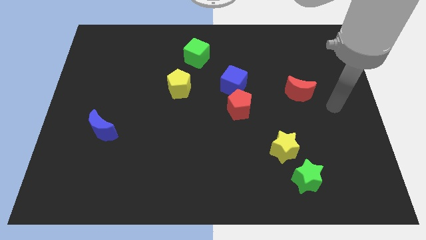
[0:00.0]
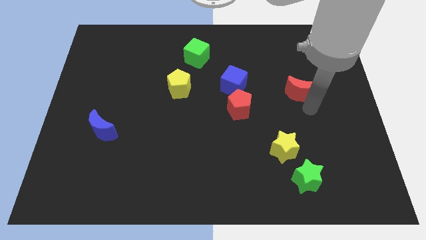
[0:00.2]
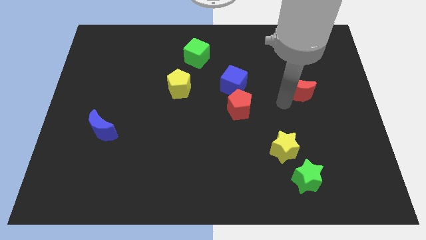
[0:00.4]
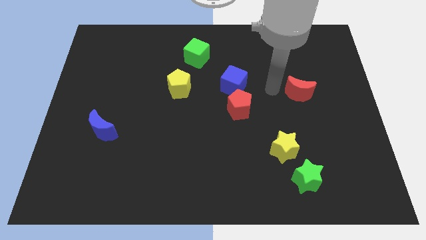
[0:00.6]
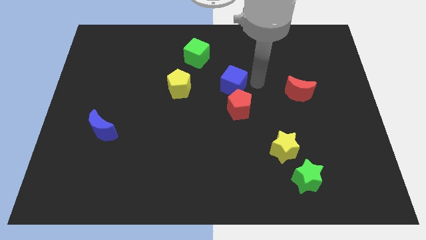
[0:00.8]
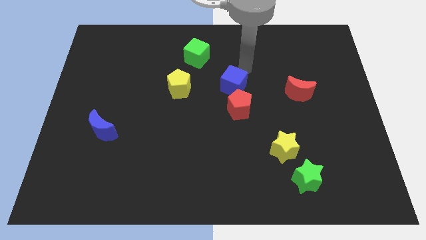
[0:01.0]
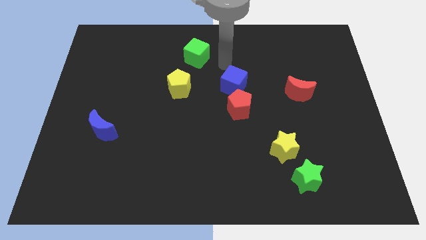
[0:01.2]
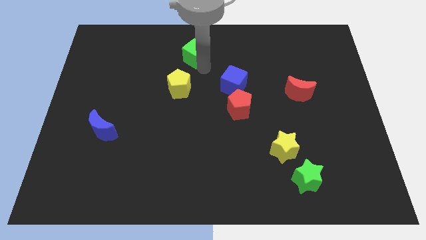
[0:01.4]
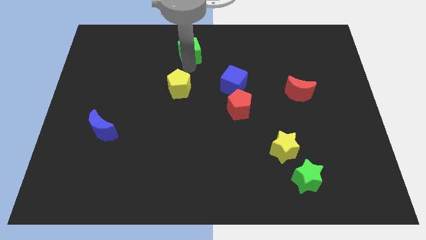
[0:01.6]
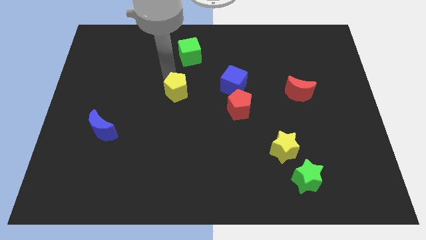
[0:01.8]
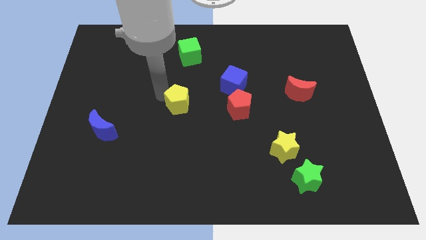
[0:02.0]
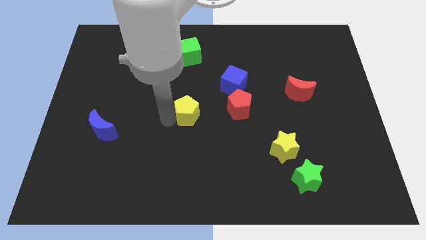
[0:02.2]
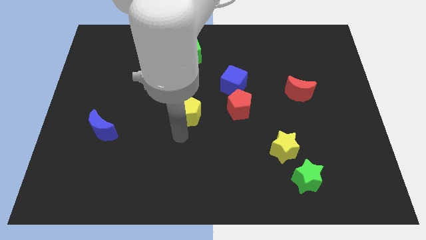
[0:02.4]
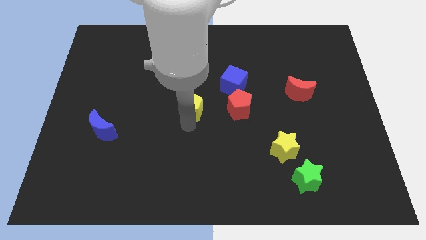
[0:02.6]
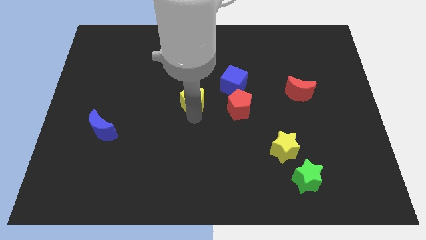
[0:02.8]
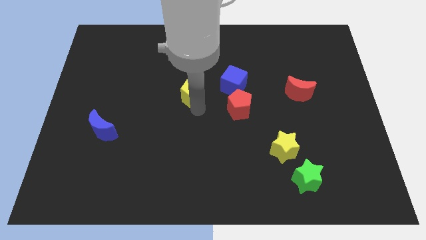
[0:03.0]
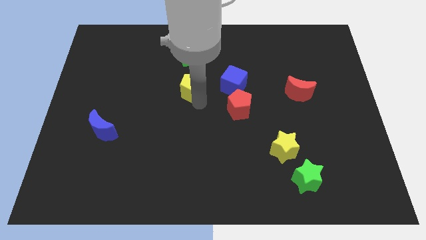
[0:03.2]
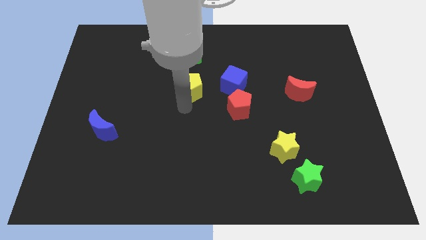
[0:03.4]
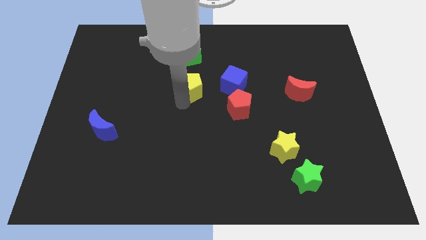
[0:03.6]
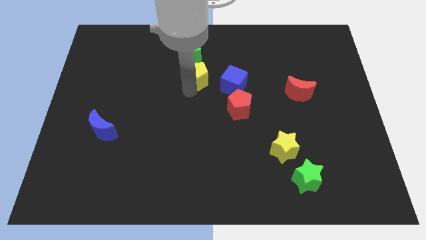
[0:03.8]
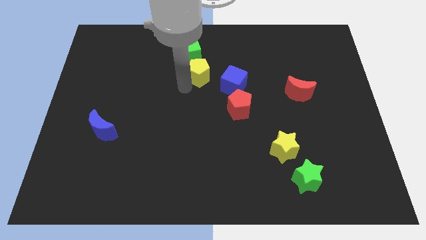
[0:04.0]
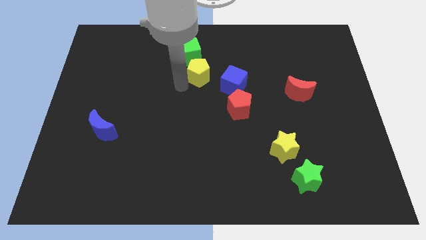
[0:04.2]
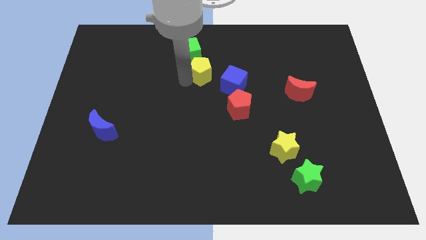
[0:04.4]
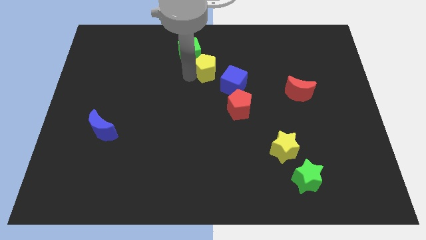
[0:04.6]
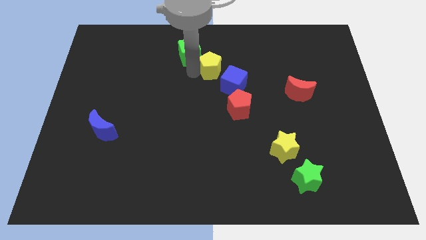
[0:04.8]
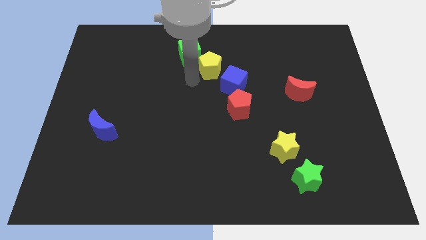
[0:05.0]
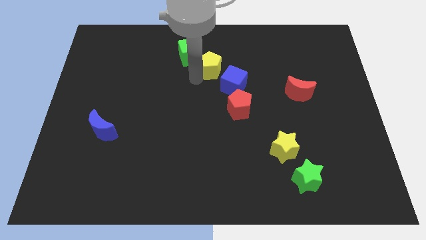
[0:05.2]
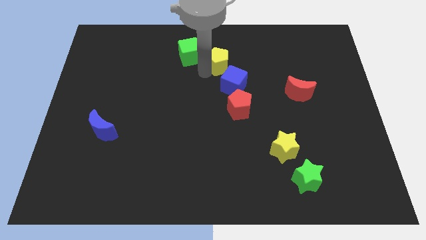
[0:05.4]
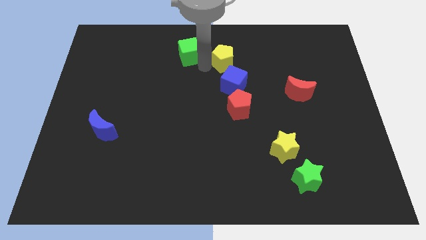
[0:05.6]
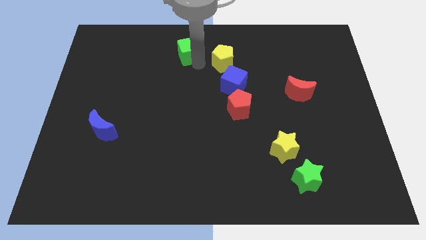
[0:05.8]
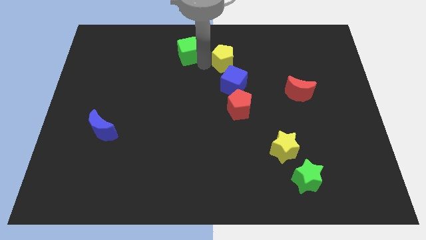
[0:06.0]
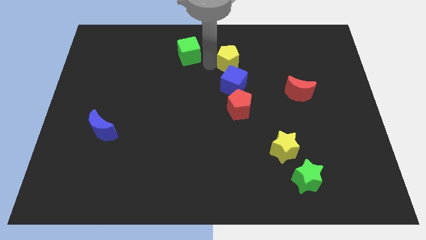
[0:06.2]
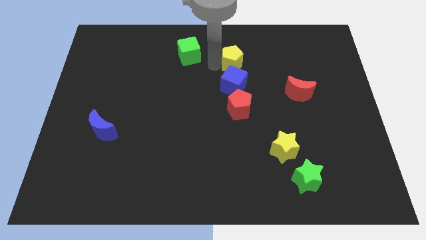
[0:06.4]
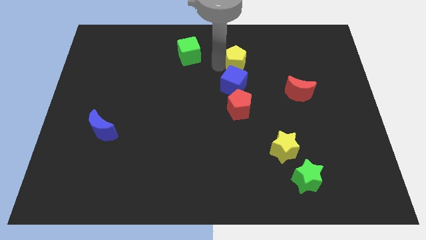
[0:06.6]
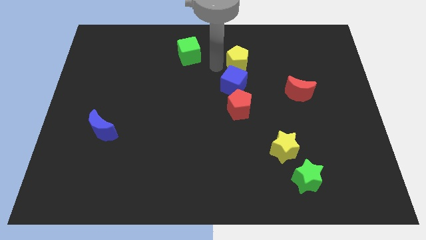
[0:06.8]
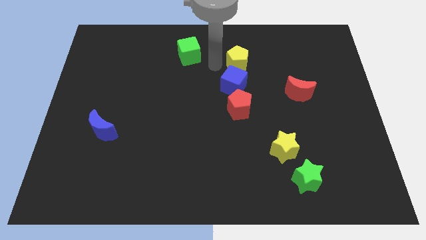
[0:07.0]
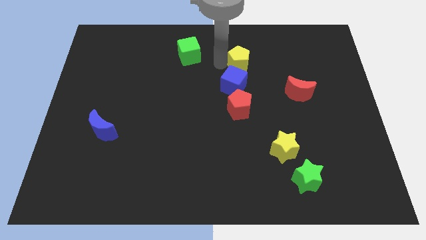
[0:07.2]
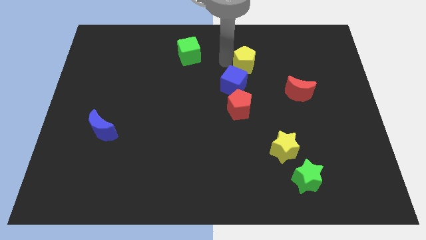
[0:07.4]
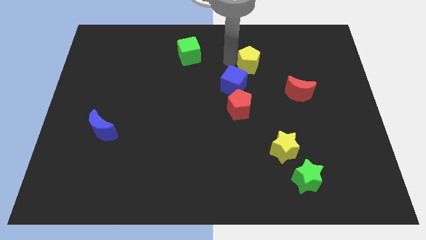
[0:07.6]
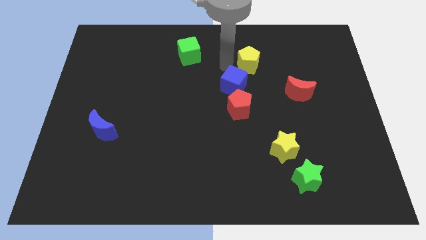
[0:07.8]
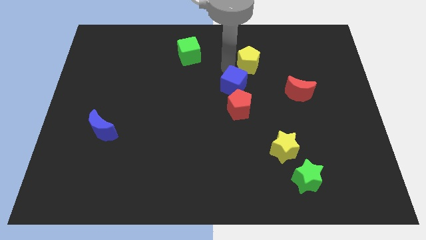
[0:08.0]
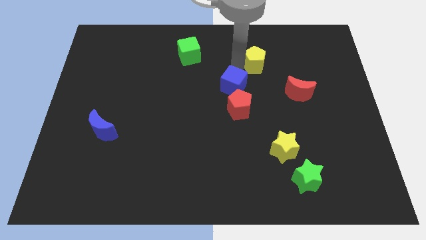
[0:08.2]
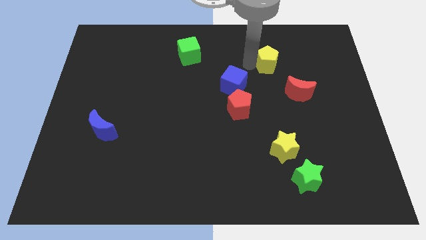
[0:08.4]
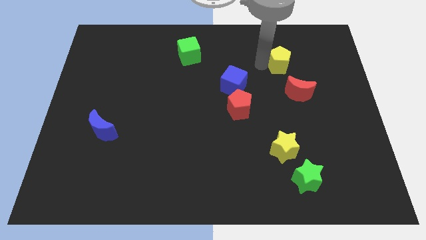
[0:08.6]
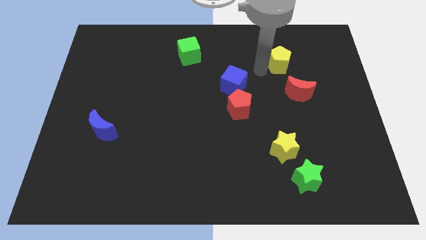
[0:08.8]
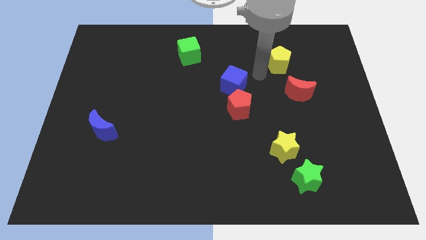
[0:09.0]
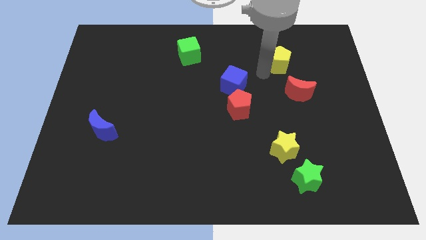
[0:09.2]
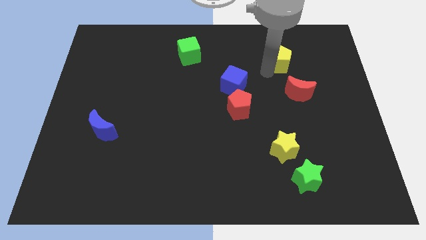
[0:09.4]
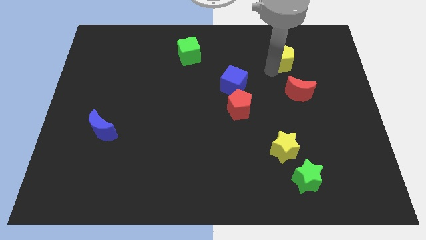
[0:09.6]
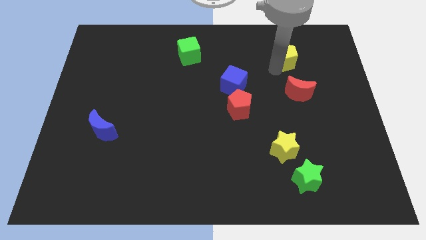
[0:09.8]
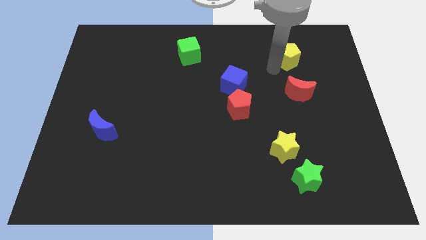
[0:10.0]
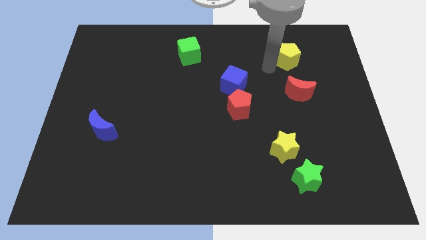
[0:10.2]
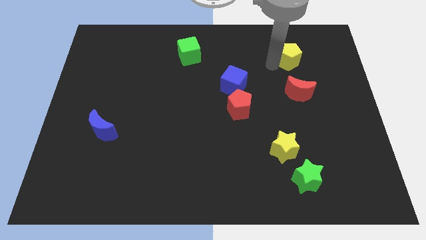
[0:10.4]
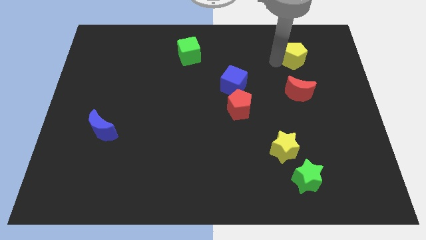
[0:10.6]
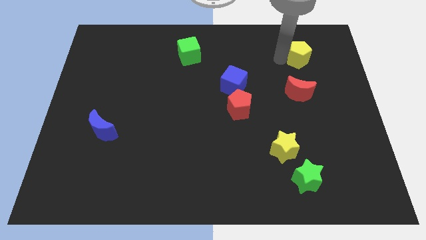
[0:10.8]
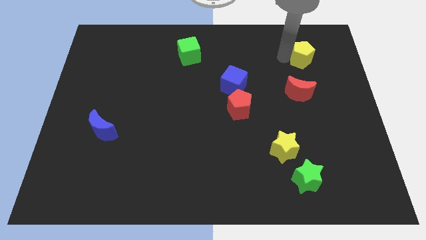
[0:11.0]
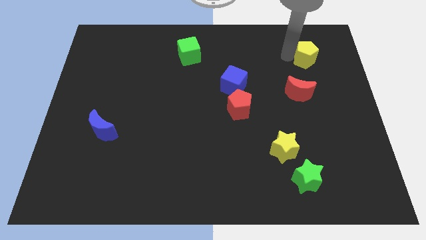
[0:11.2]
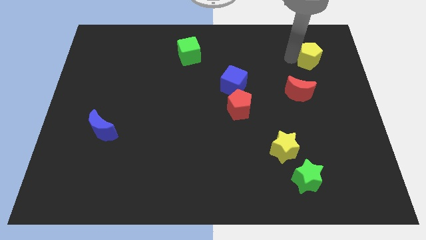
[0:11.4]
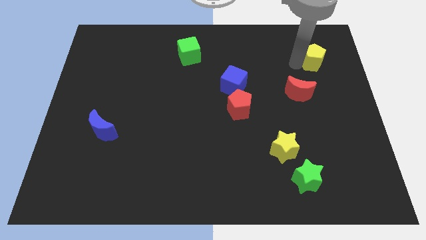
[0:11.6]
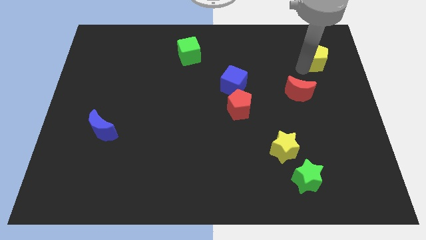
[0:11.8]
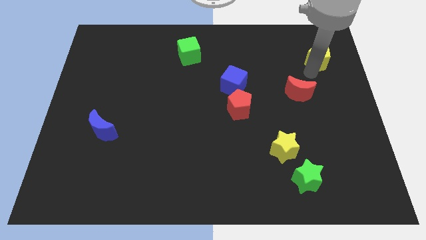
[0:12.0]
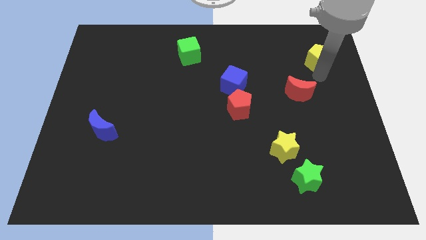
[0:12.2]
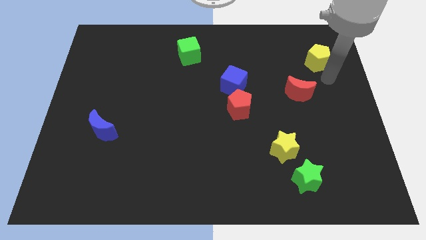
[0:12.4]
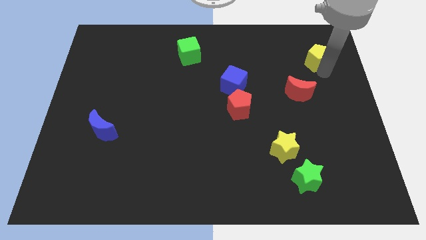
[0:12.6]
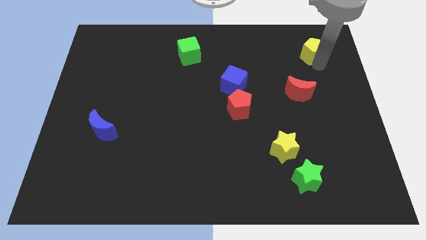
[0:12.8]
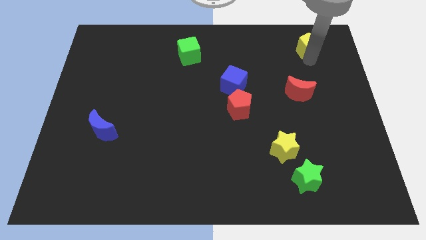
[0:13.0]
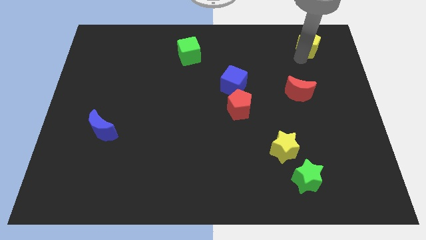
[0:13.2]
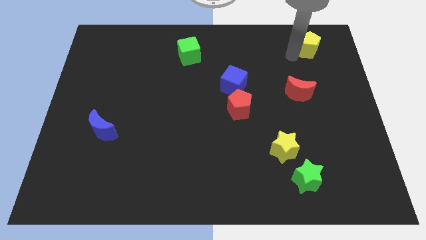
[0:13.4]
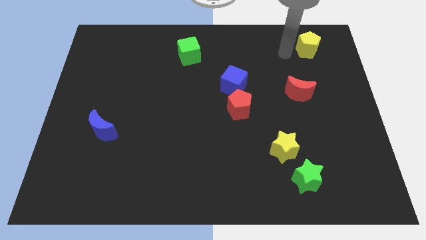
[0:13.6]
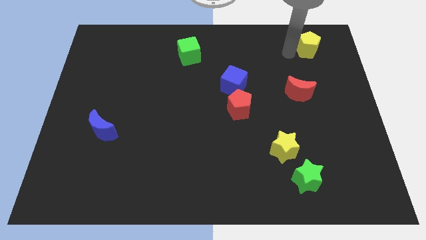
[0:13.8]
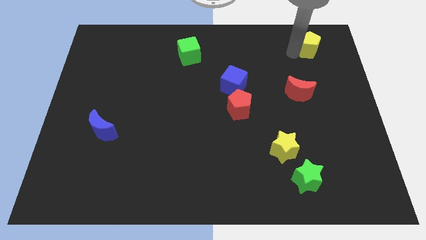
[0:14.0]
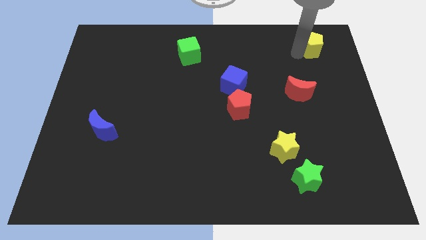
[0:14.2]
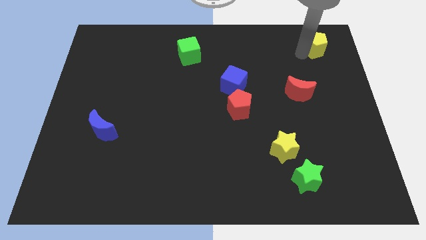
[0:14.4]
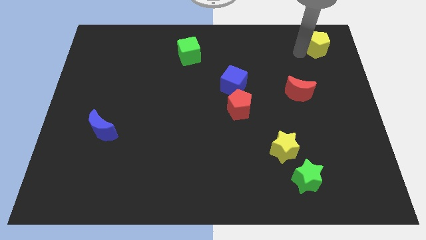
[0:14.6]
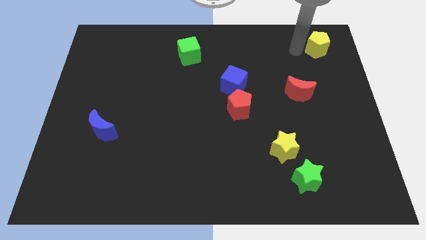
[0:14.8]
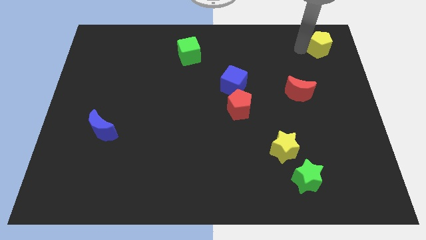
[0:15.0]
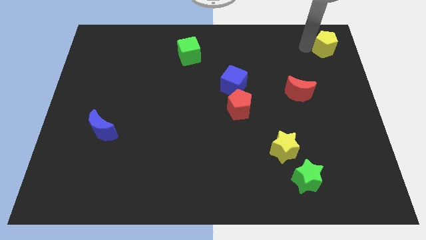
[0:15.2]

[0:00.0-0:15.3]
put the yellow pentagon to the upper right corner

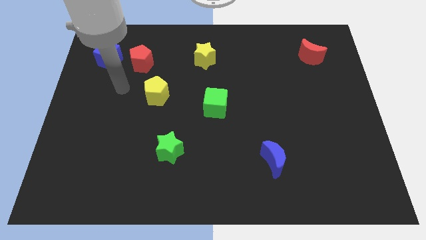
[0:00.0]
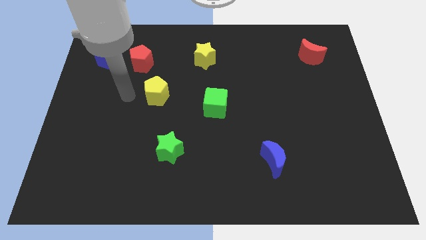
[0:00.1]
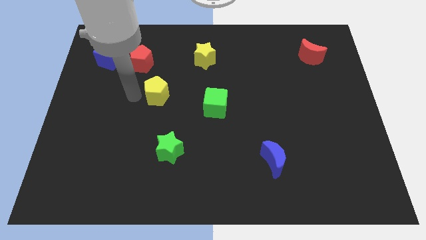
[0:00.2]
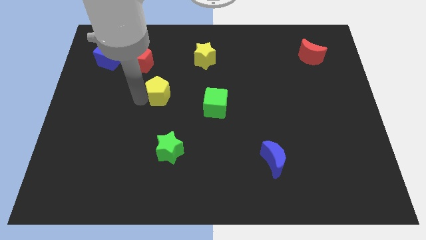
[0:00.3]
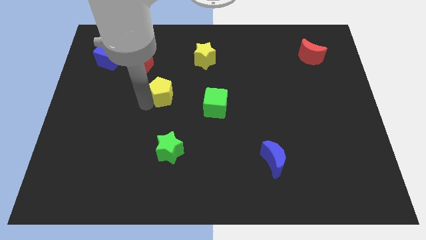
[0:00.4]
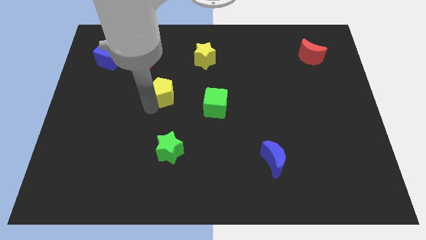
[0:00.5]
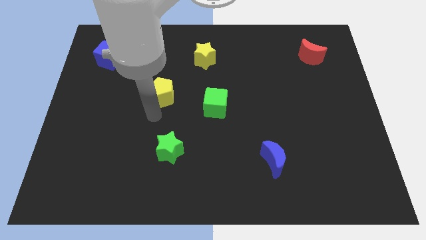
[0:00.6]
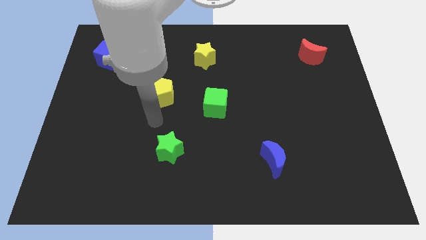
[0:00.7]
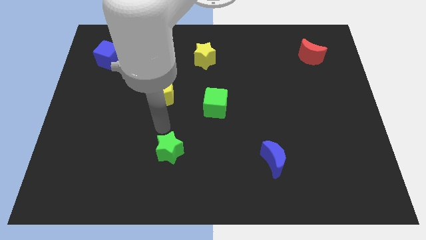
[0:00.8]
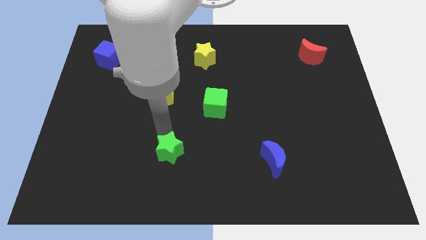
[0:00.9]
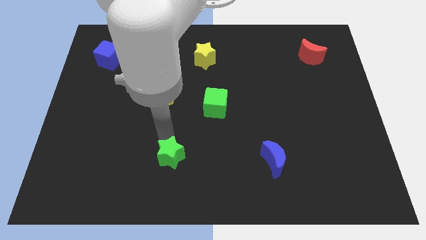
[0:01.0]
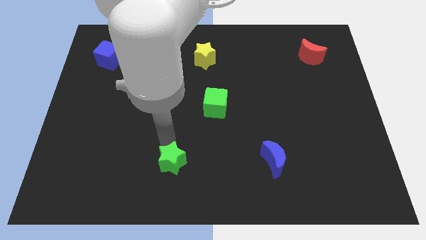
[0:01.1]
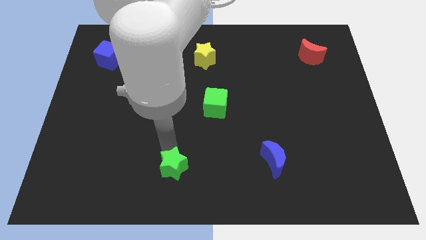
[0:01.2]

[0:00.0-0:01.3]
move the green star to the bottom
